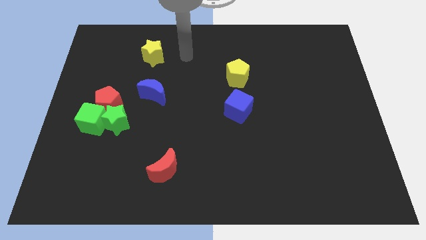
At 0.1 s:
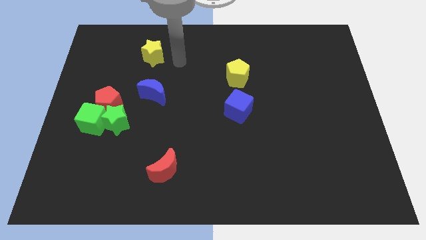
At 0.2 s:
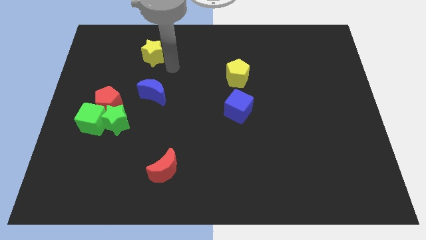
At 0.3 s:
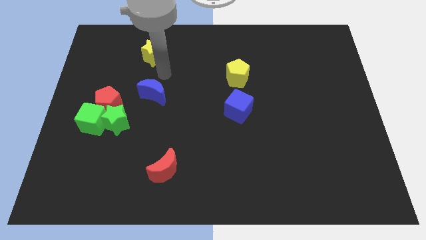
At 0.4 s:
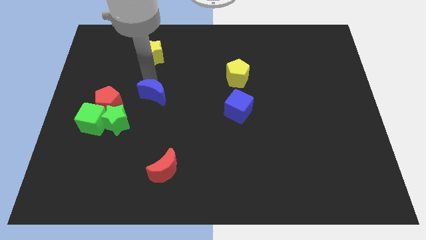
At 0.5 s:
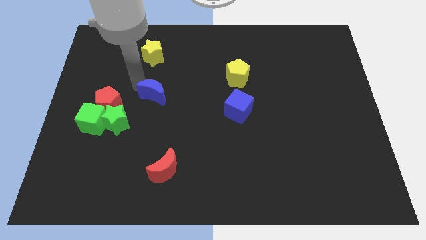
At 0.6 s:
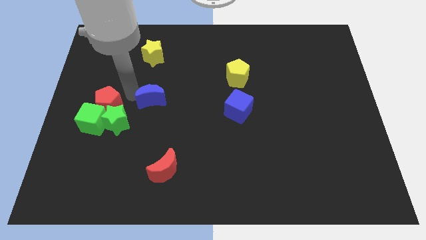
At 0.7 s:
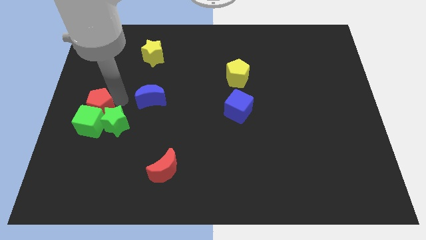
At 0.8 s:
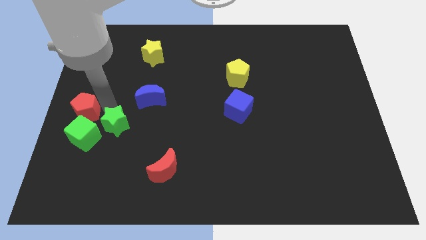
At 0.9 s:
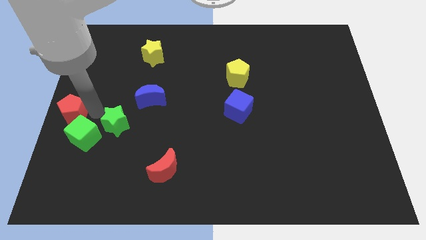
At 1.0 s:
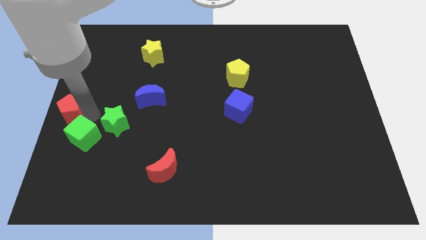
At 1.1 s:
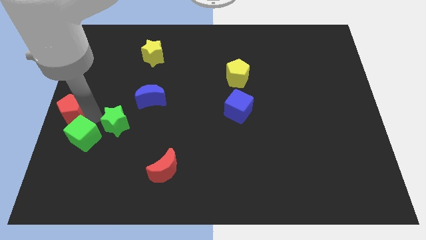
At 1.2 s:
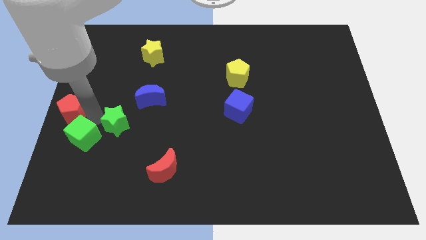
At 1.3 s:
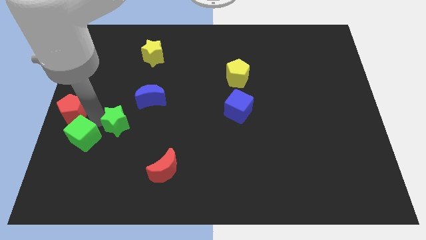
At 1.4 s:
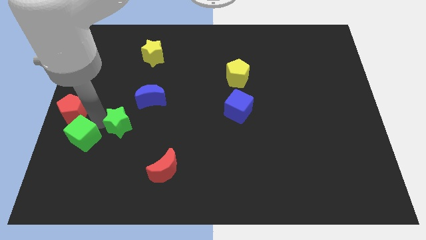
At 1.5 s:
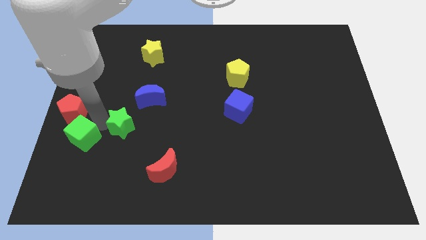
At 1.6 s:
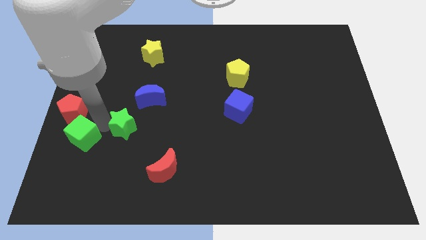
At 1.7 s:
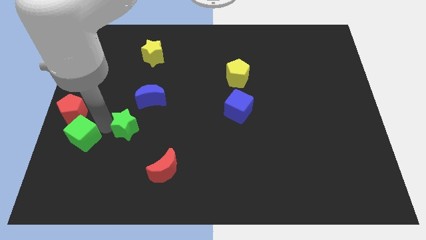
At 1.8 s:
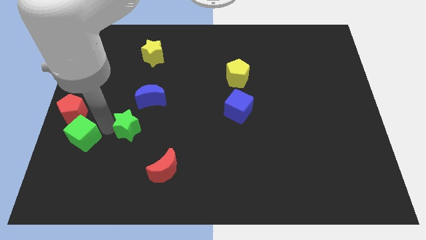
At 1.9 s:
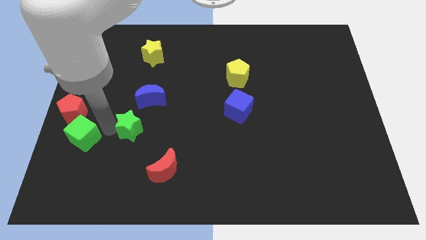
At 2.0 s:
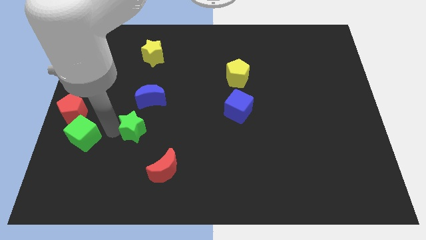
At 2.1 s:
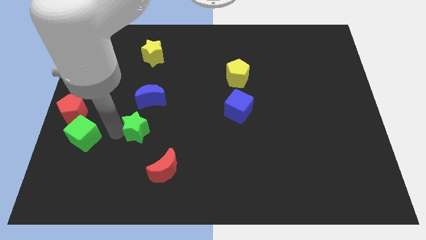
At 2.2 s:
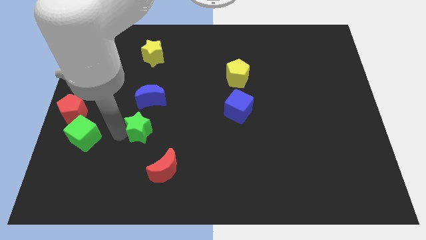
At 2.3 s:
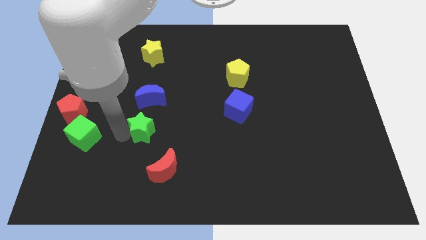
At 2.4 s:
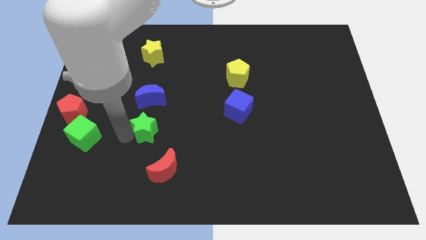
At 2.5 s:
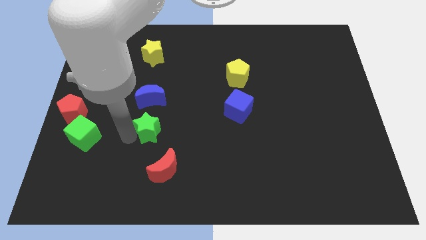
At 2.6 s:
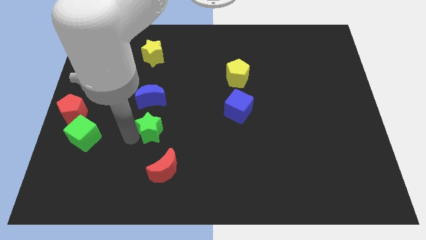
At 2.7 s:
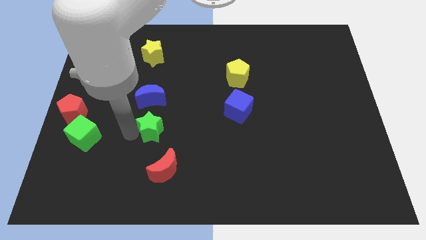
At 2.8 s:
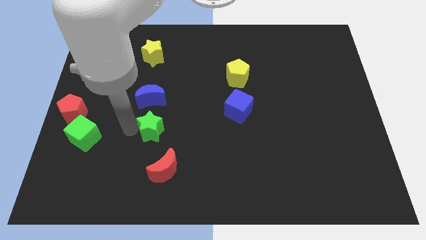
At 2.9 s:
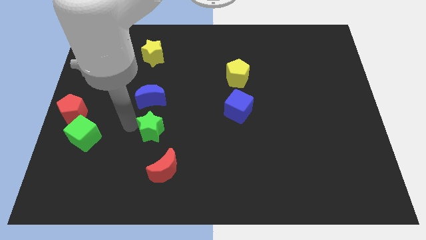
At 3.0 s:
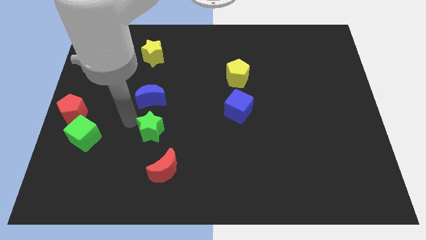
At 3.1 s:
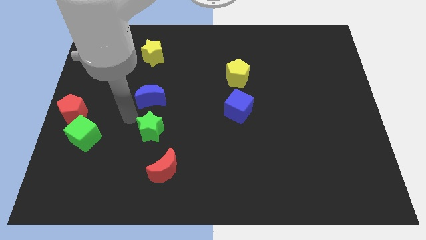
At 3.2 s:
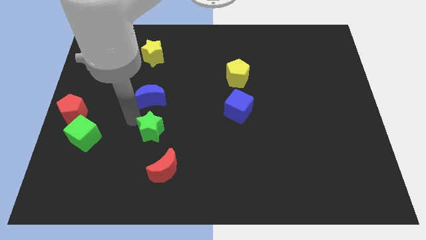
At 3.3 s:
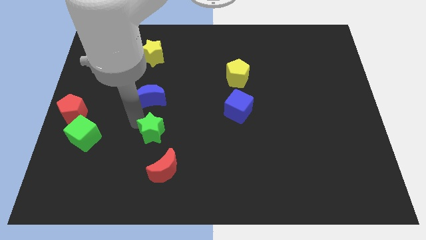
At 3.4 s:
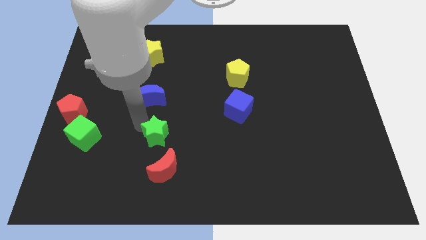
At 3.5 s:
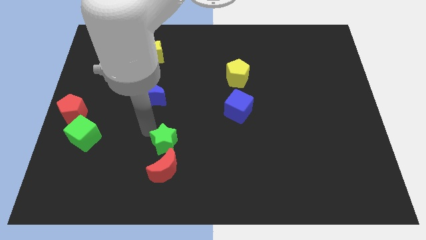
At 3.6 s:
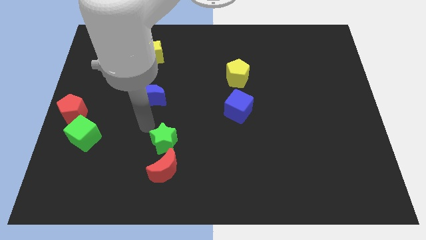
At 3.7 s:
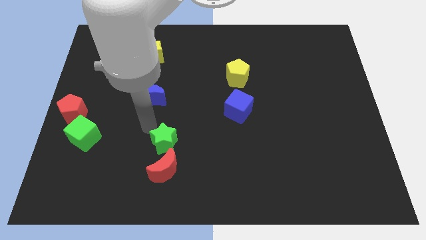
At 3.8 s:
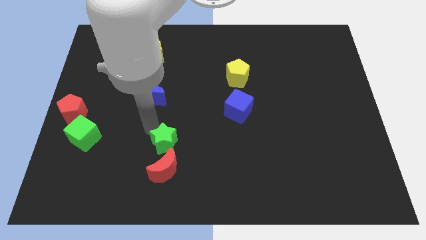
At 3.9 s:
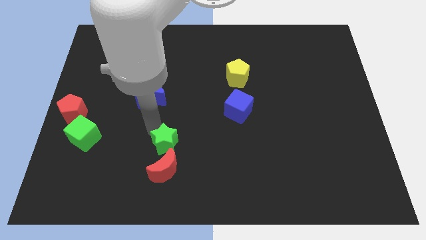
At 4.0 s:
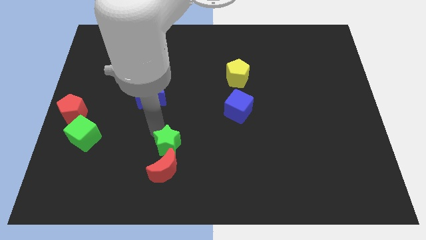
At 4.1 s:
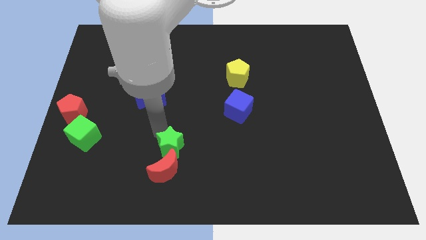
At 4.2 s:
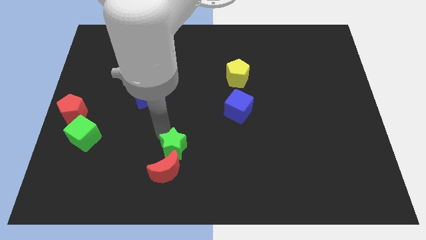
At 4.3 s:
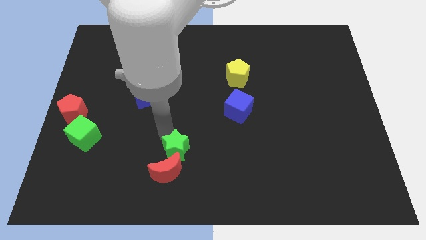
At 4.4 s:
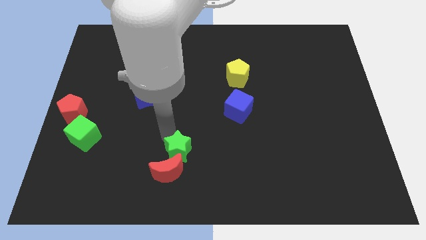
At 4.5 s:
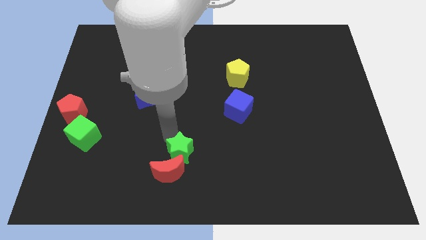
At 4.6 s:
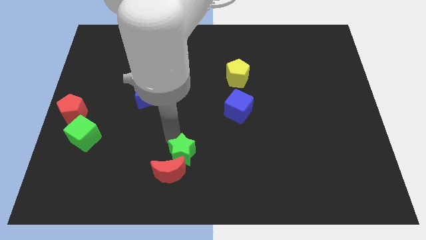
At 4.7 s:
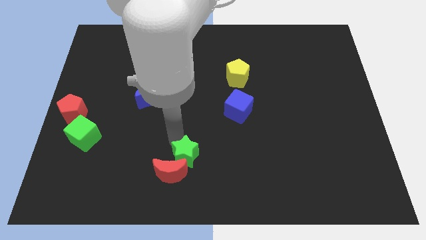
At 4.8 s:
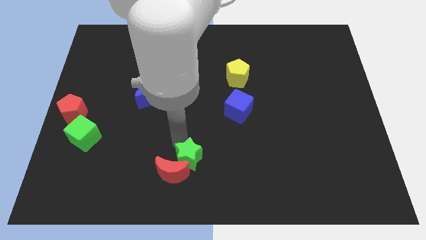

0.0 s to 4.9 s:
slide the green star to the bottom side

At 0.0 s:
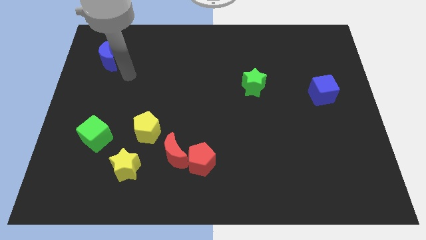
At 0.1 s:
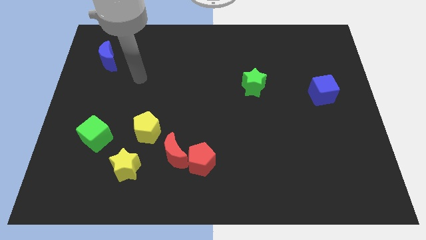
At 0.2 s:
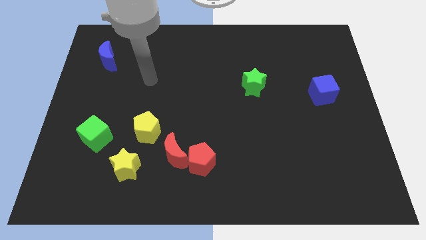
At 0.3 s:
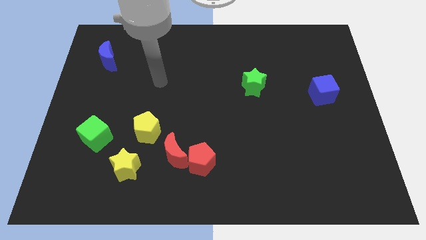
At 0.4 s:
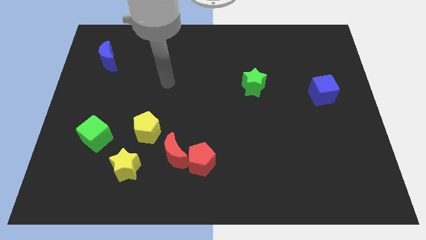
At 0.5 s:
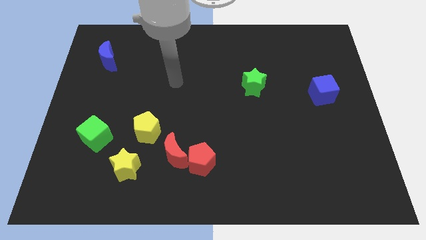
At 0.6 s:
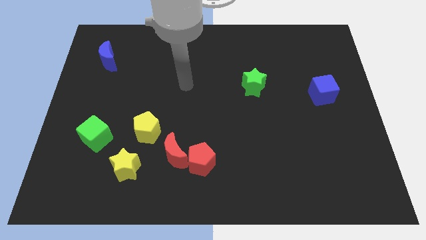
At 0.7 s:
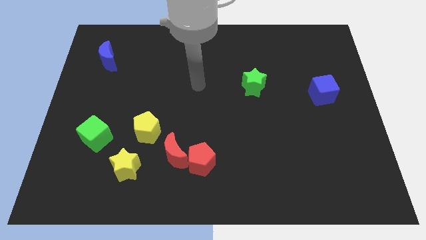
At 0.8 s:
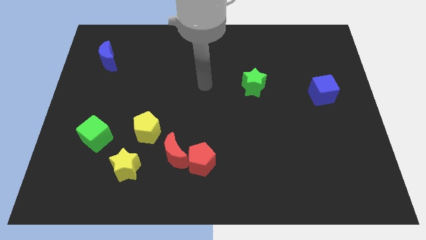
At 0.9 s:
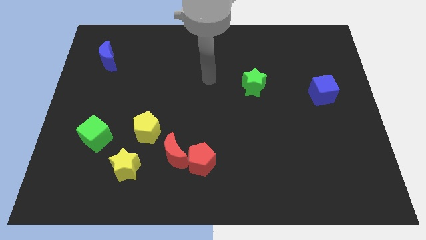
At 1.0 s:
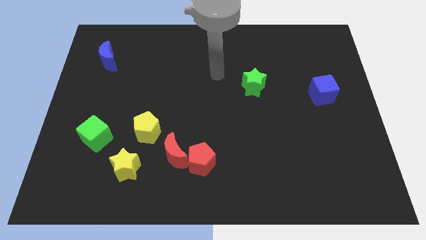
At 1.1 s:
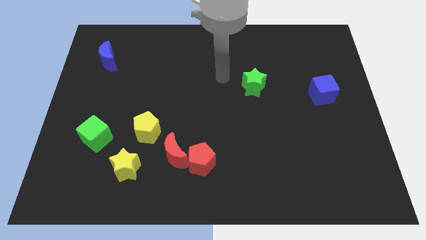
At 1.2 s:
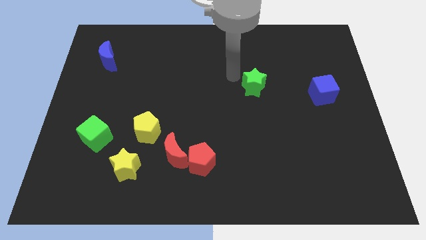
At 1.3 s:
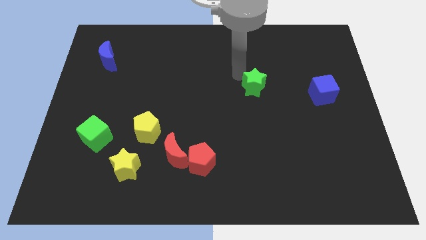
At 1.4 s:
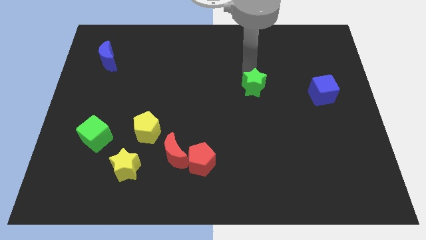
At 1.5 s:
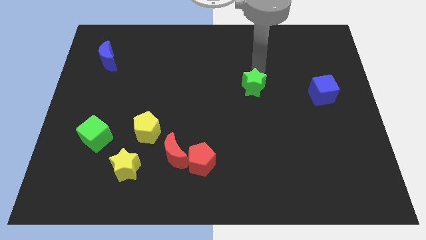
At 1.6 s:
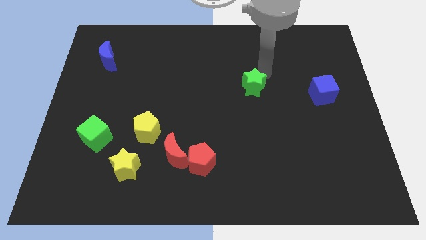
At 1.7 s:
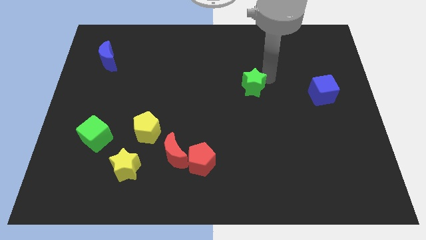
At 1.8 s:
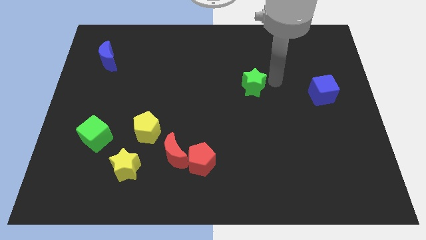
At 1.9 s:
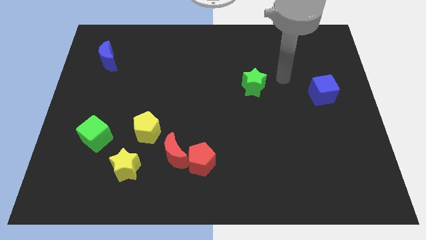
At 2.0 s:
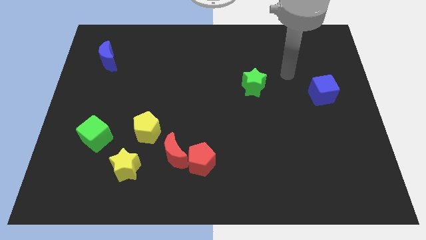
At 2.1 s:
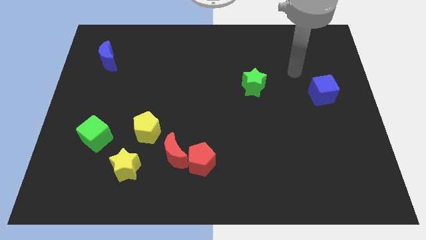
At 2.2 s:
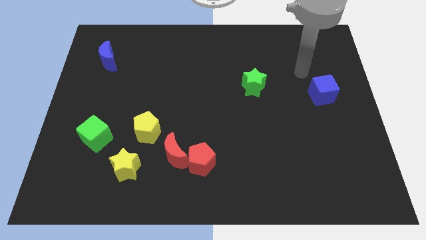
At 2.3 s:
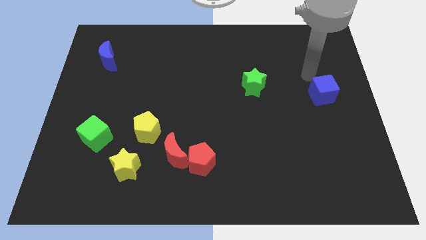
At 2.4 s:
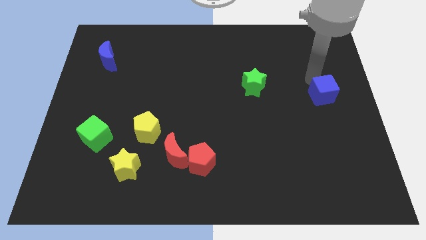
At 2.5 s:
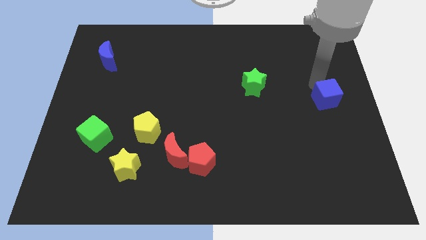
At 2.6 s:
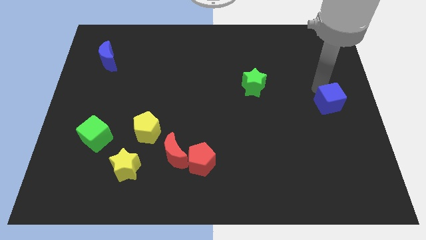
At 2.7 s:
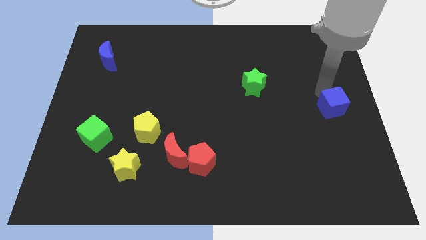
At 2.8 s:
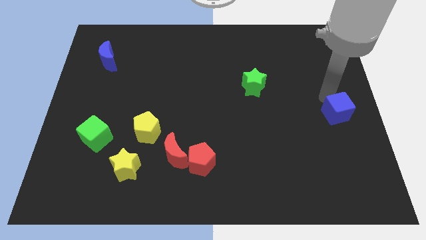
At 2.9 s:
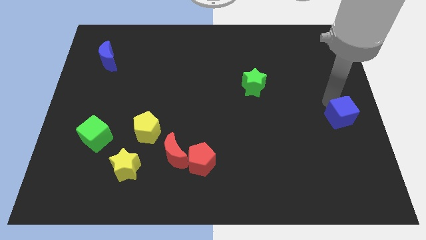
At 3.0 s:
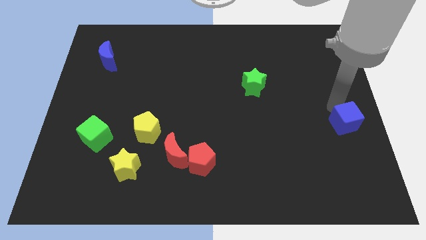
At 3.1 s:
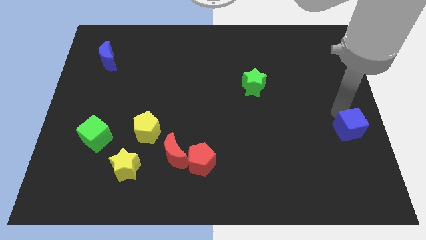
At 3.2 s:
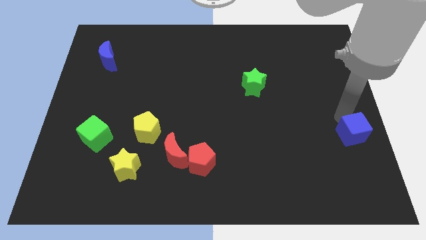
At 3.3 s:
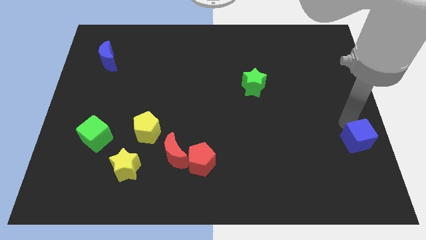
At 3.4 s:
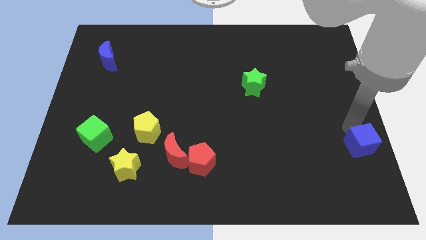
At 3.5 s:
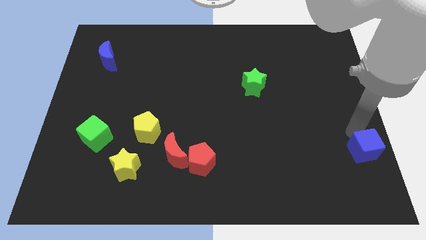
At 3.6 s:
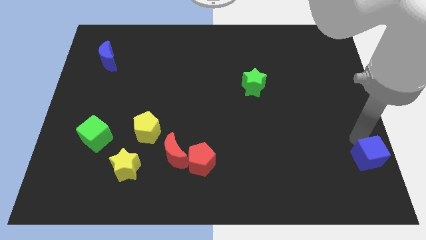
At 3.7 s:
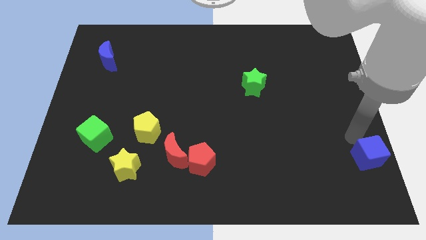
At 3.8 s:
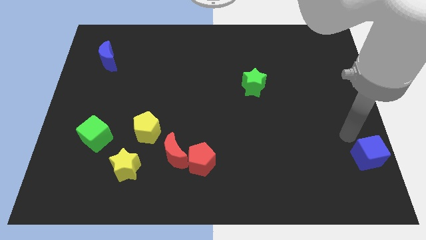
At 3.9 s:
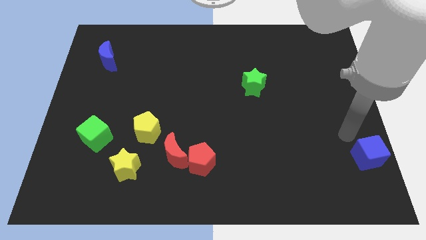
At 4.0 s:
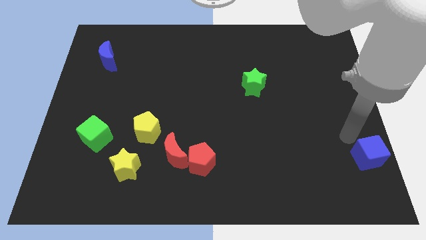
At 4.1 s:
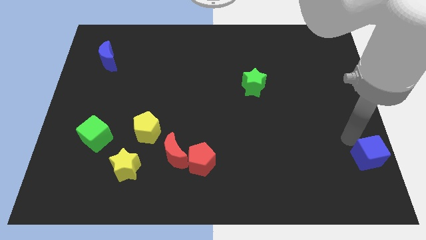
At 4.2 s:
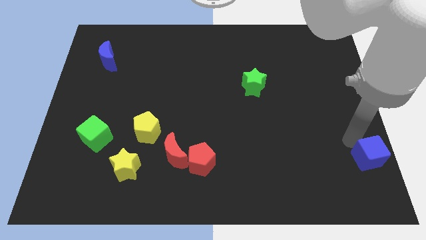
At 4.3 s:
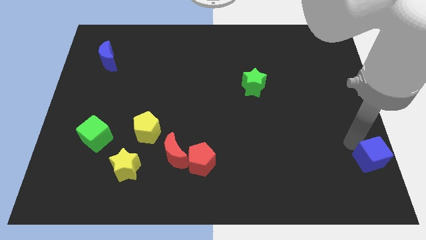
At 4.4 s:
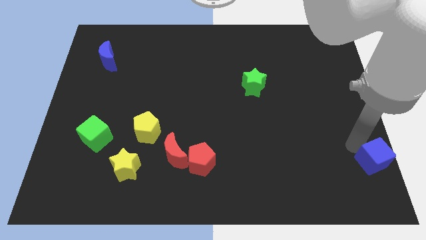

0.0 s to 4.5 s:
push the blue cube to the lower right corner
